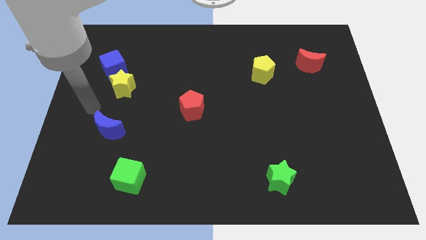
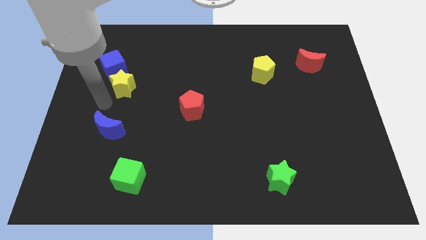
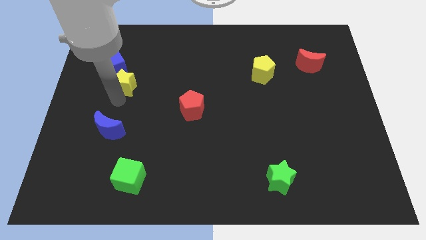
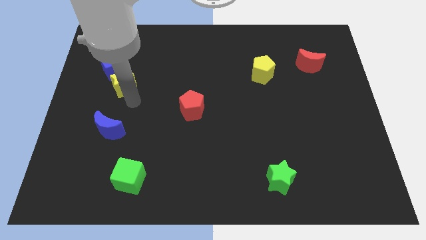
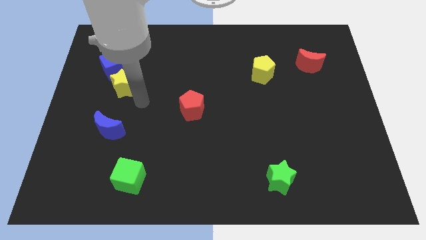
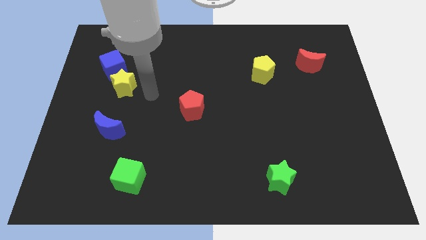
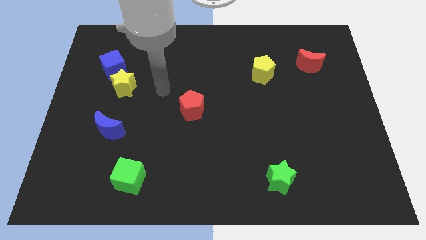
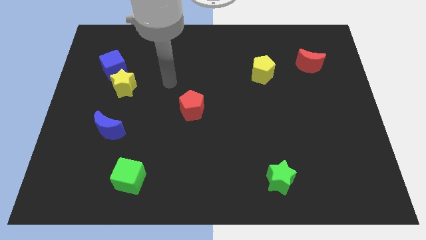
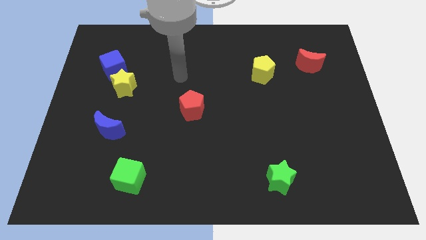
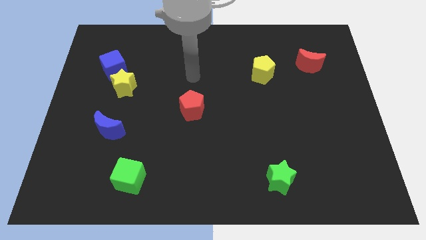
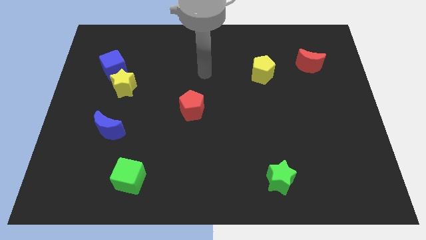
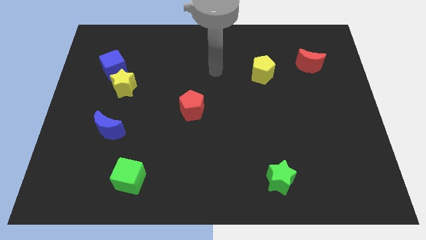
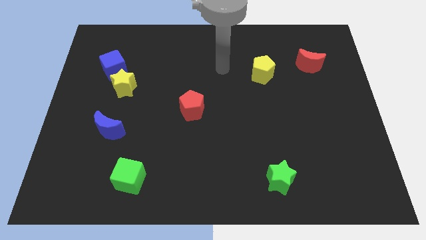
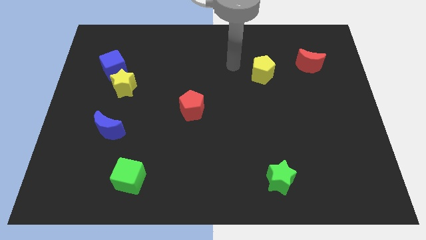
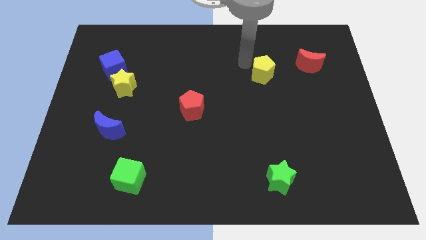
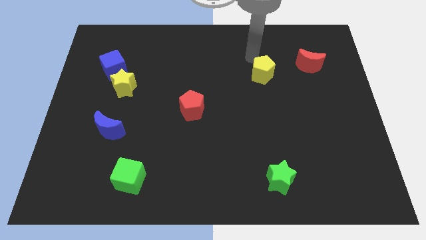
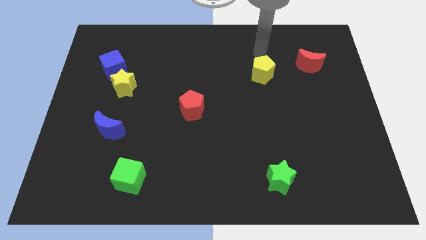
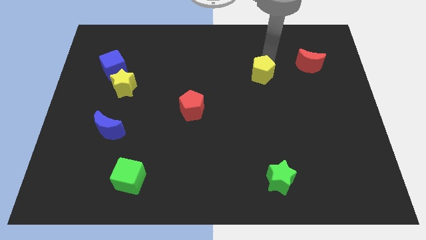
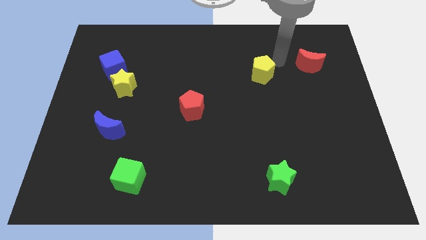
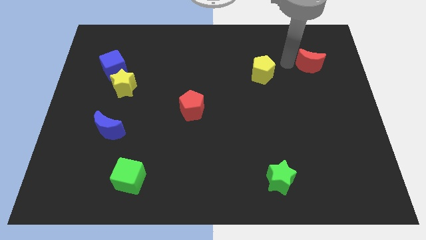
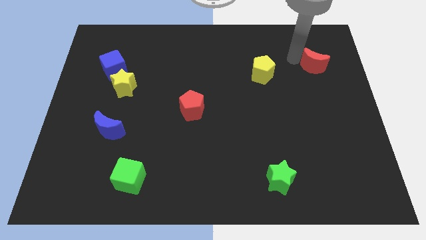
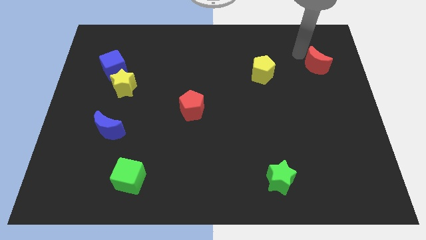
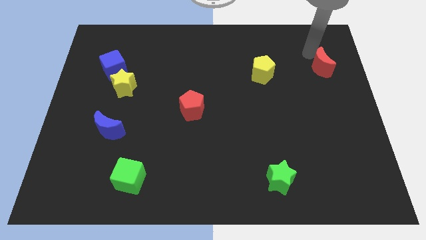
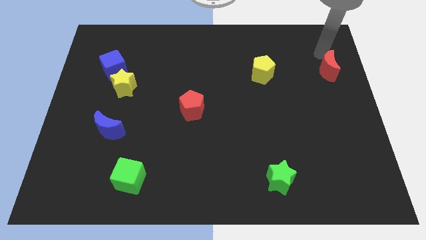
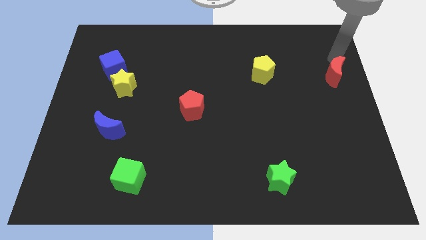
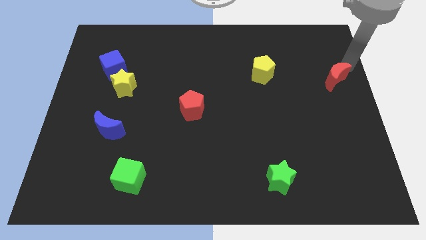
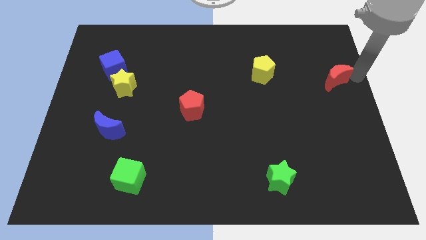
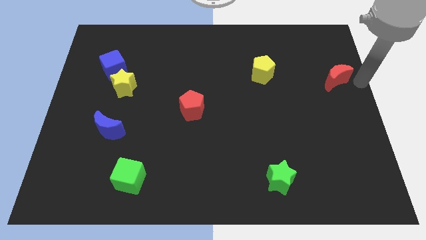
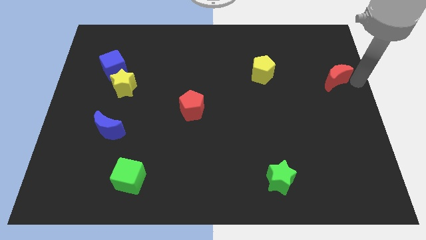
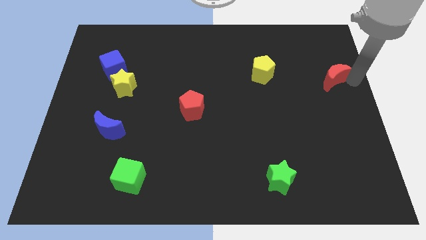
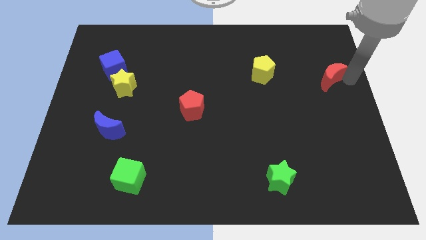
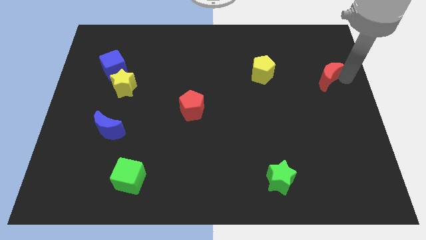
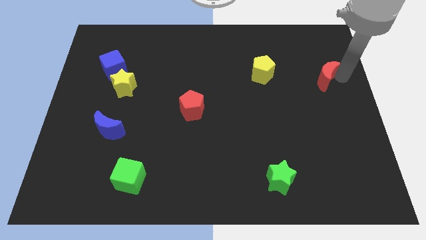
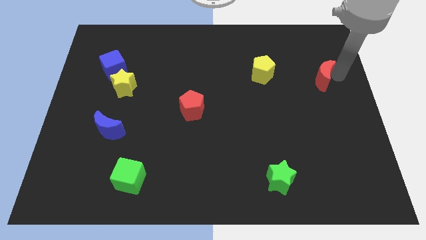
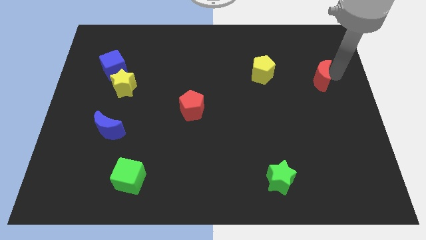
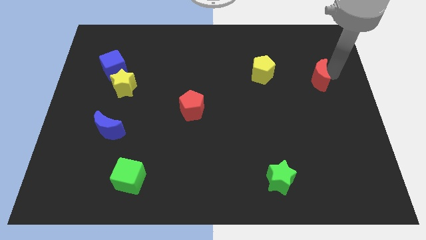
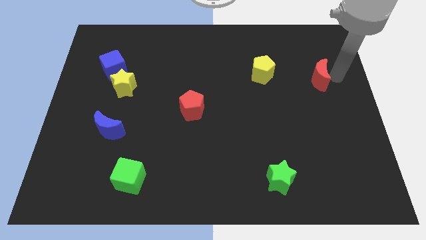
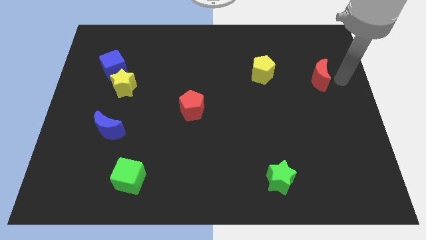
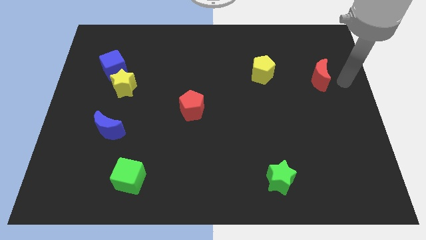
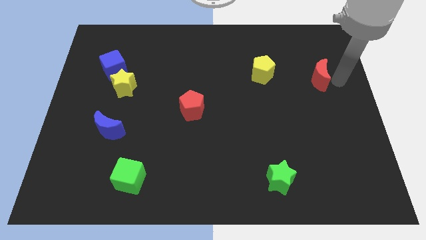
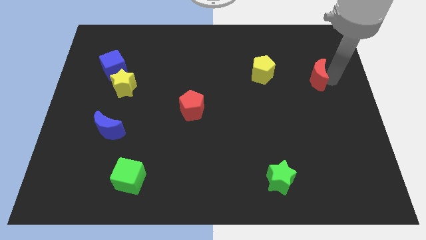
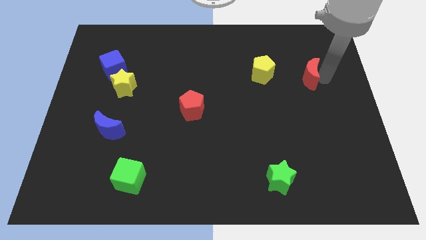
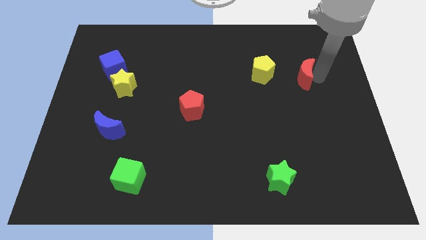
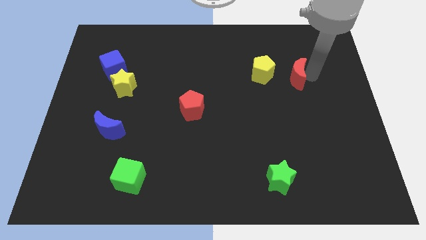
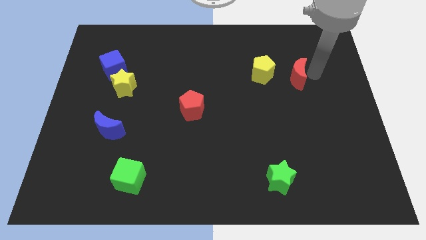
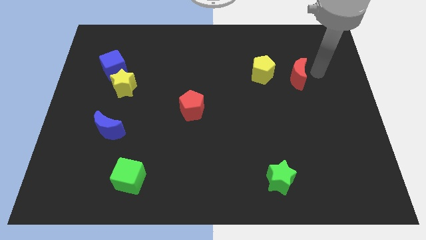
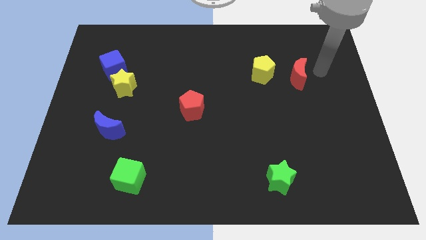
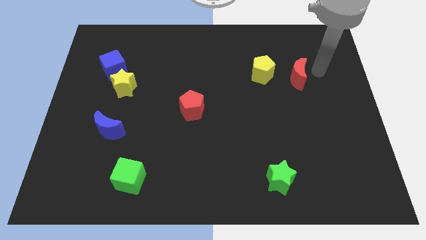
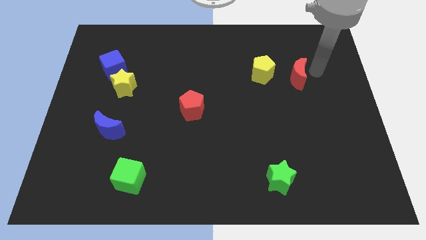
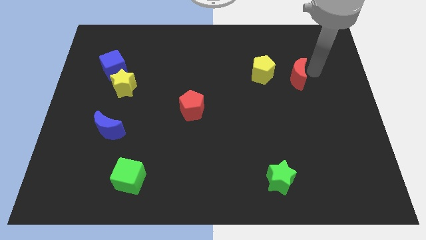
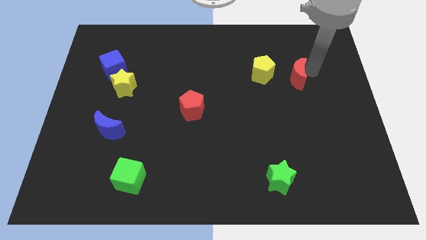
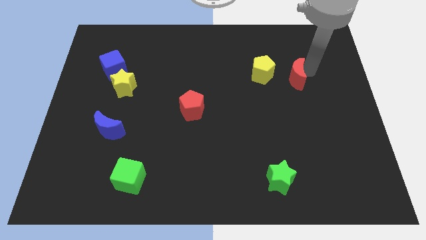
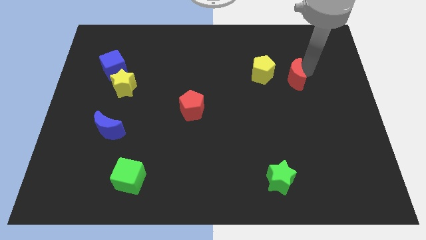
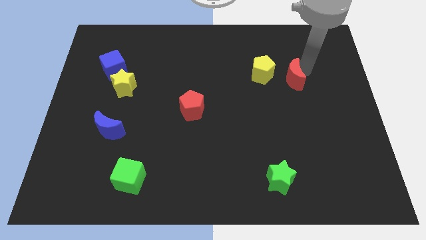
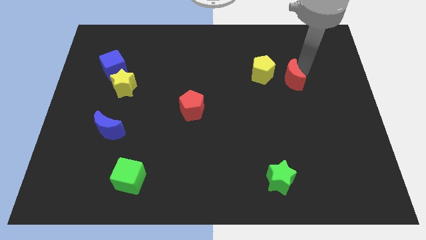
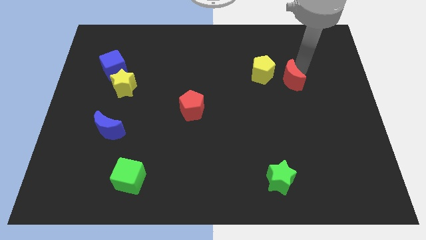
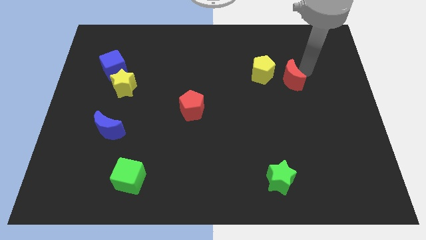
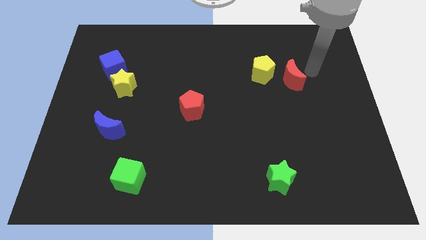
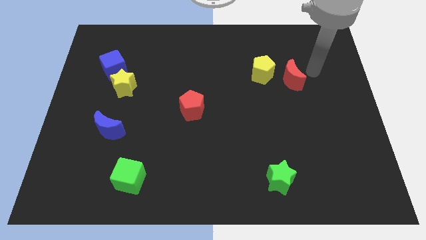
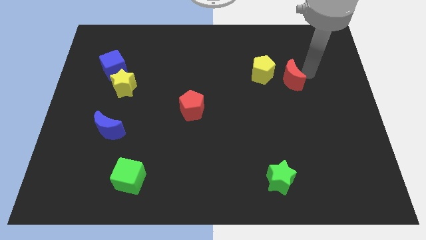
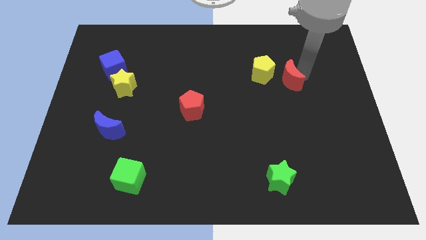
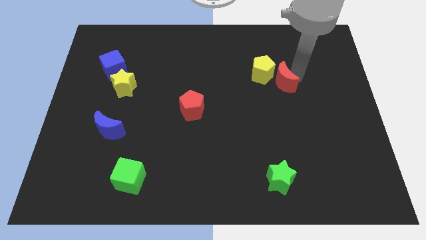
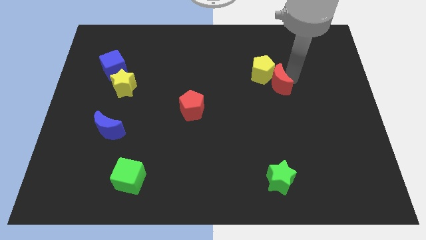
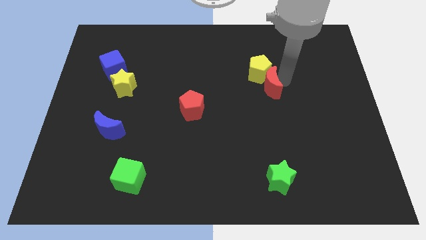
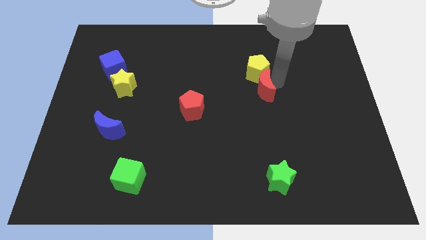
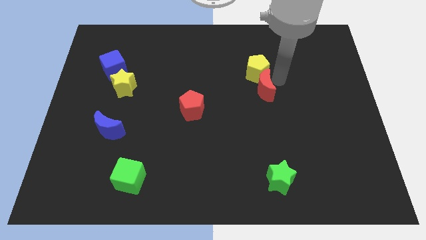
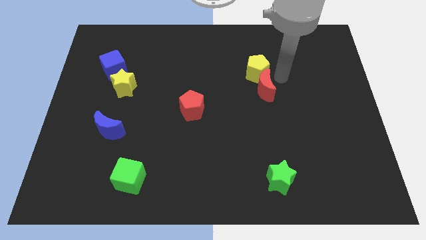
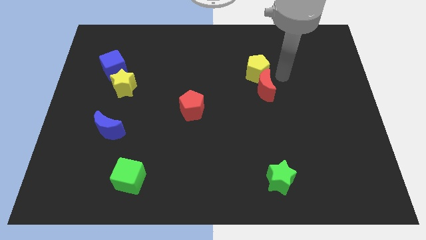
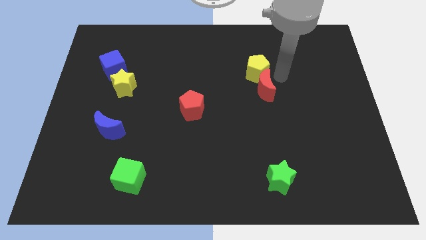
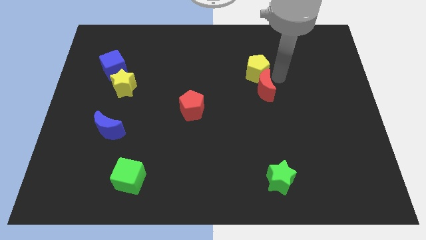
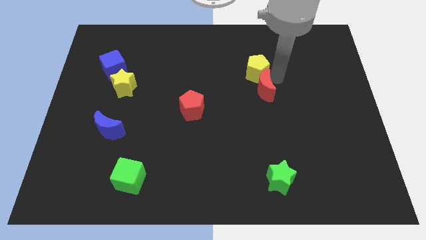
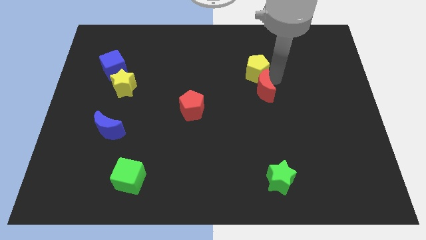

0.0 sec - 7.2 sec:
move the red moon to the middle of the board
